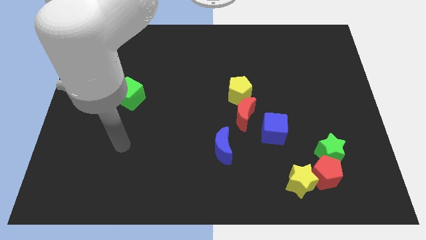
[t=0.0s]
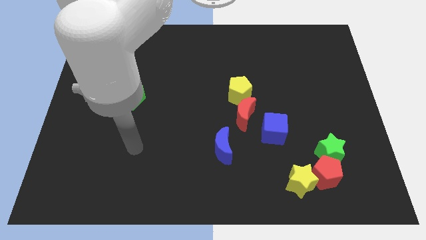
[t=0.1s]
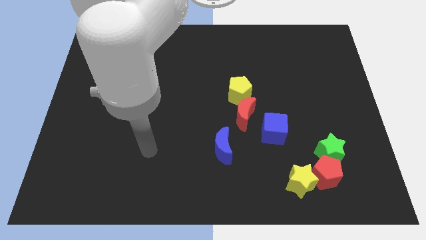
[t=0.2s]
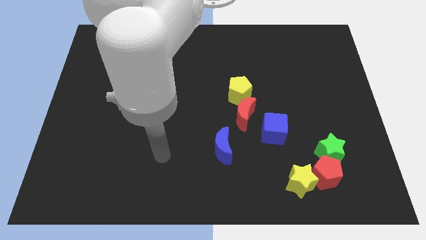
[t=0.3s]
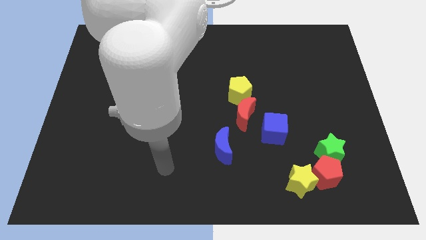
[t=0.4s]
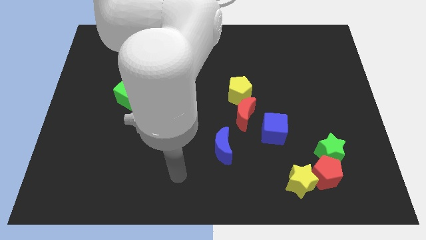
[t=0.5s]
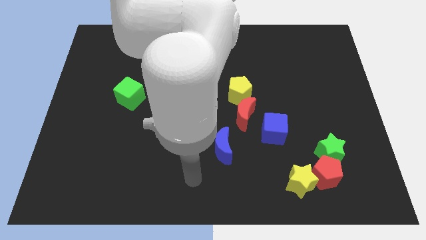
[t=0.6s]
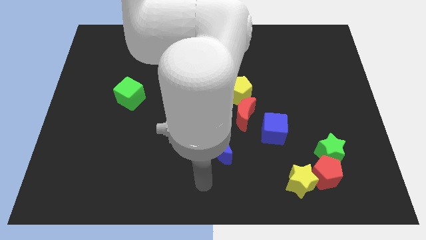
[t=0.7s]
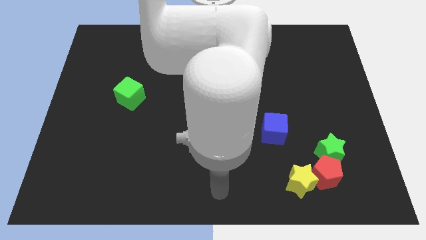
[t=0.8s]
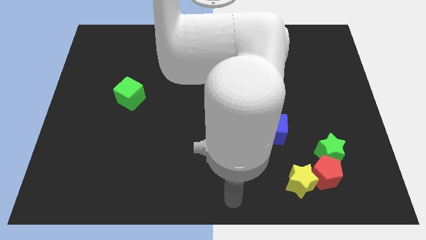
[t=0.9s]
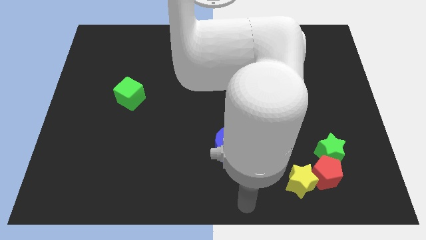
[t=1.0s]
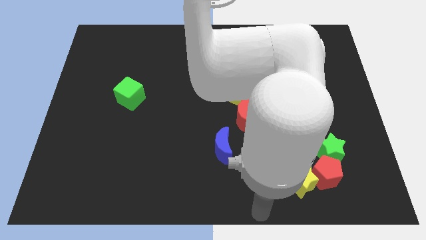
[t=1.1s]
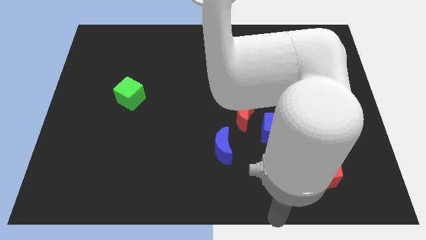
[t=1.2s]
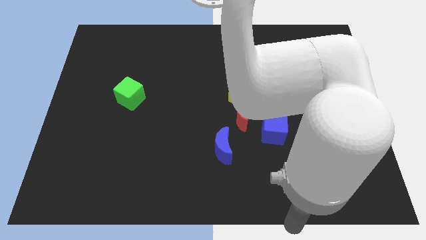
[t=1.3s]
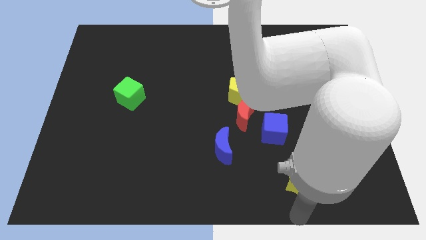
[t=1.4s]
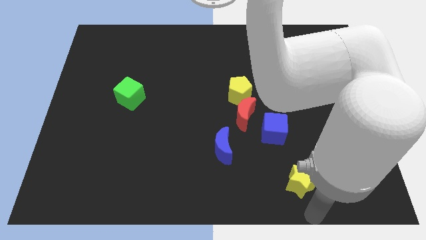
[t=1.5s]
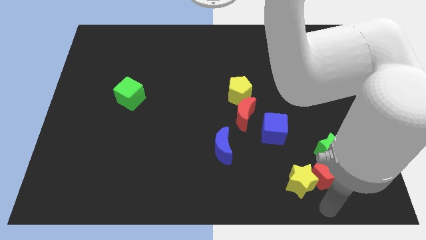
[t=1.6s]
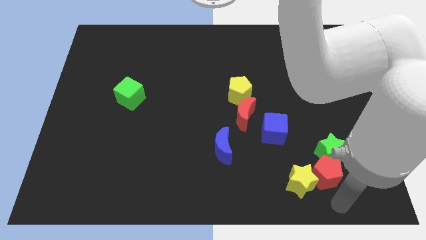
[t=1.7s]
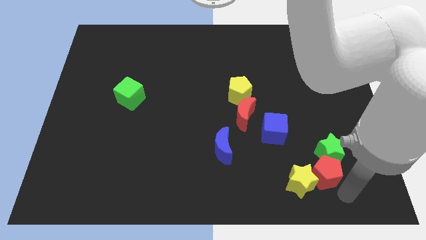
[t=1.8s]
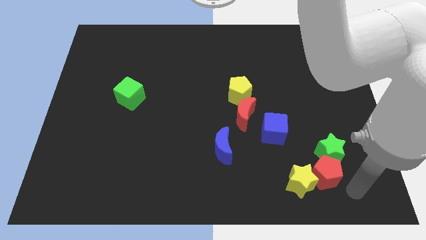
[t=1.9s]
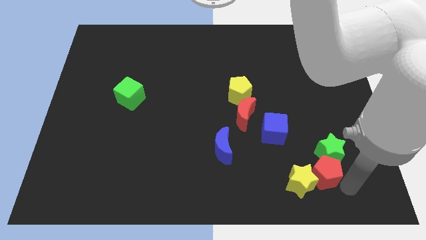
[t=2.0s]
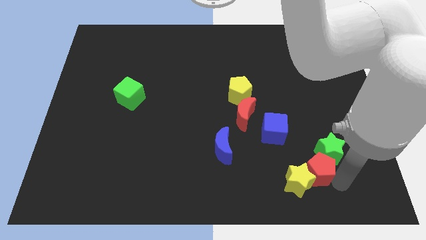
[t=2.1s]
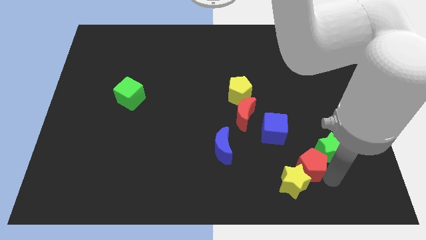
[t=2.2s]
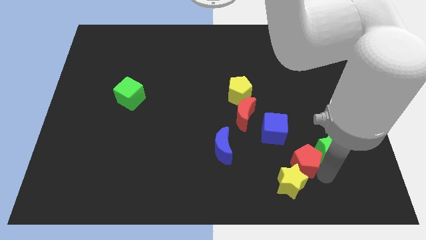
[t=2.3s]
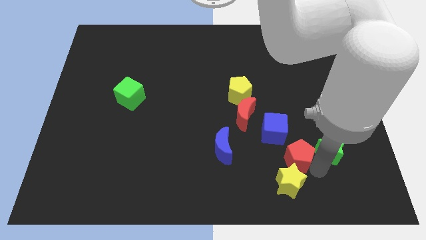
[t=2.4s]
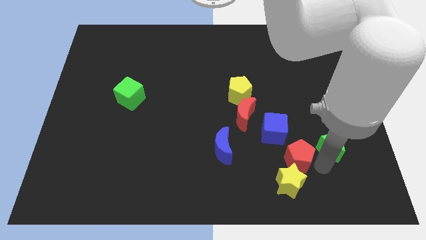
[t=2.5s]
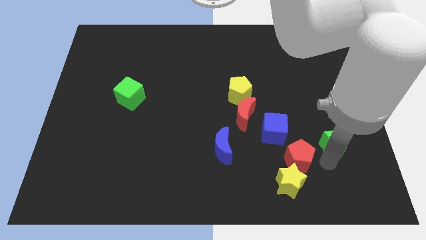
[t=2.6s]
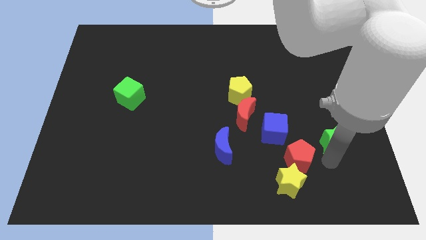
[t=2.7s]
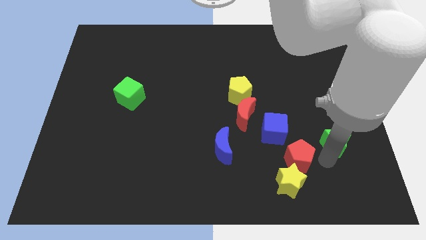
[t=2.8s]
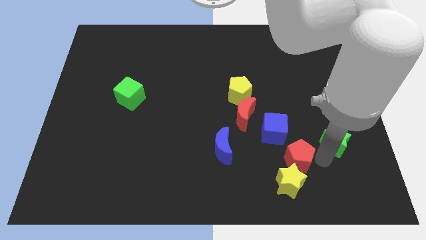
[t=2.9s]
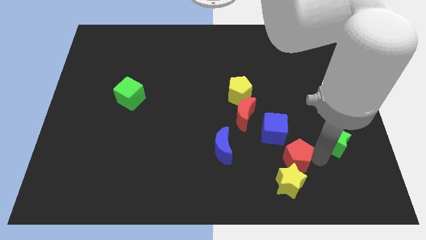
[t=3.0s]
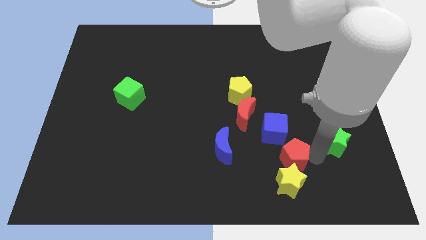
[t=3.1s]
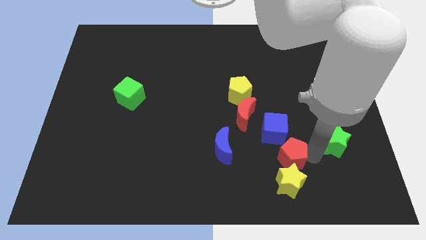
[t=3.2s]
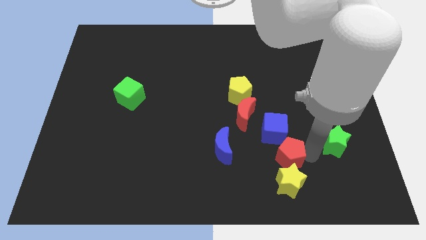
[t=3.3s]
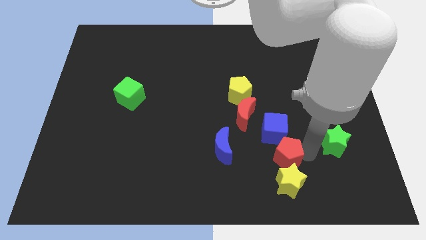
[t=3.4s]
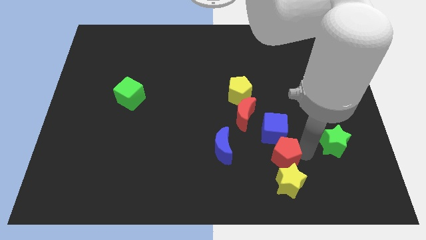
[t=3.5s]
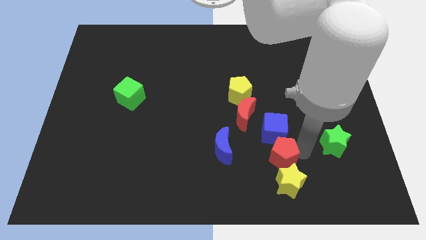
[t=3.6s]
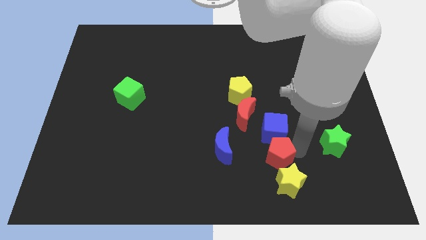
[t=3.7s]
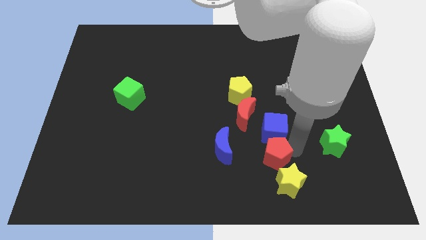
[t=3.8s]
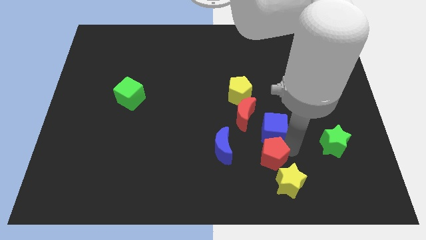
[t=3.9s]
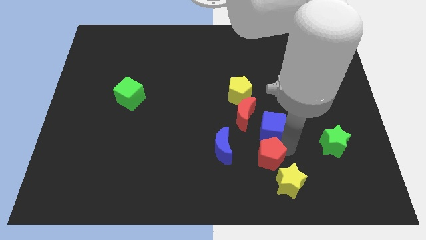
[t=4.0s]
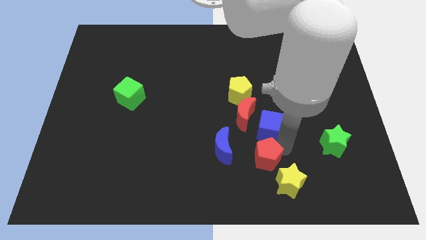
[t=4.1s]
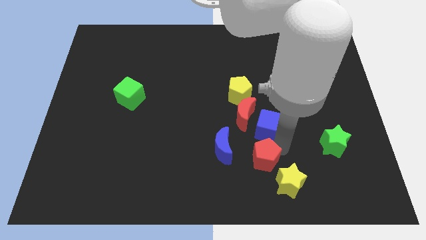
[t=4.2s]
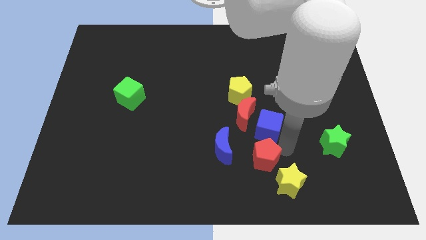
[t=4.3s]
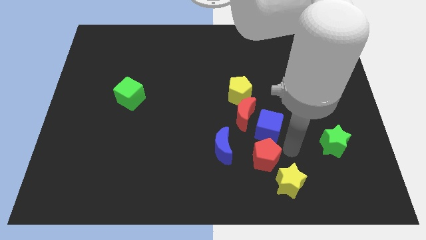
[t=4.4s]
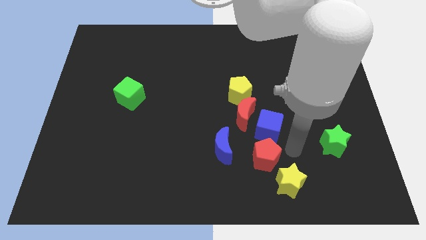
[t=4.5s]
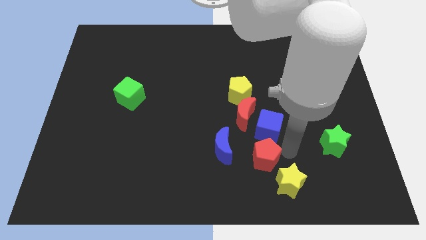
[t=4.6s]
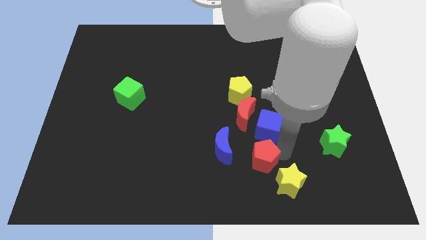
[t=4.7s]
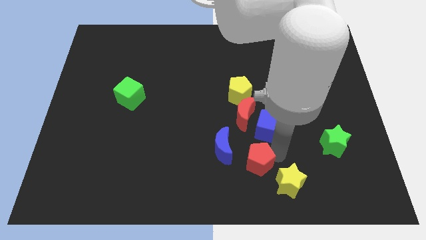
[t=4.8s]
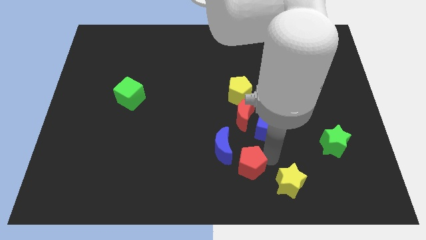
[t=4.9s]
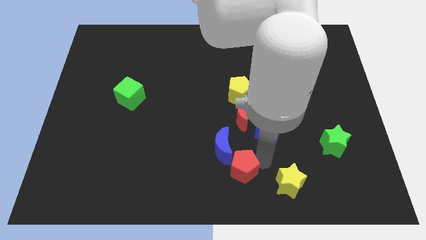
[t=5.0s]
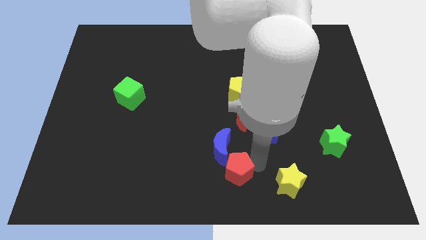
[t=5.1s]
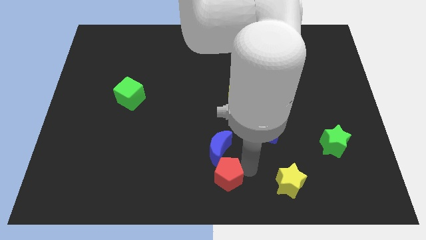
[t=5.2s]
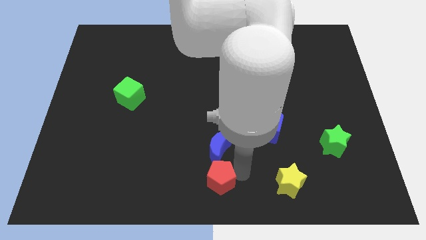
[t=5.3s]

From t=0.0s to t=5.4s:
move the red pentagon diagonally down and to the left of the blue moon

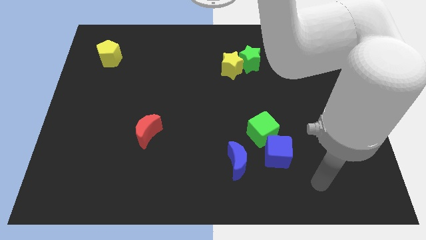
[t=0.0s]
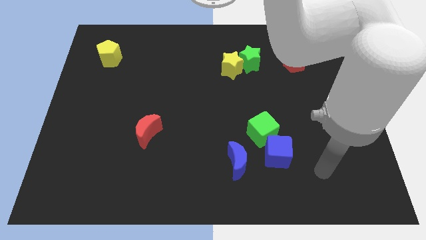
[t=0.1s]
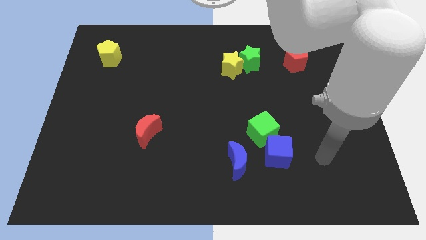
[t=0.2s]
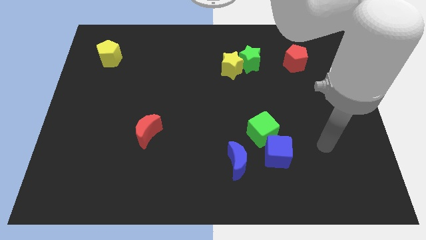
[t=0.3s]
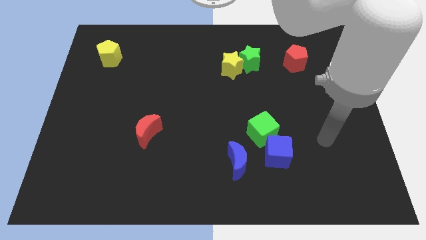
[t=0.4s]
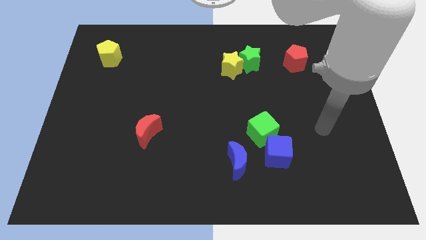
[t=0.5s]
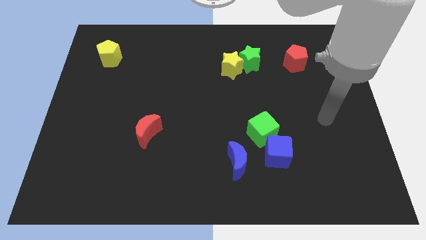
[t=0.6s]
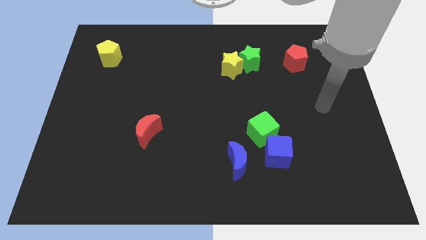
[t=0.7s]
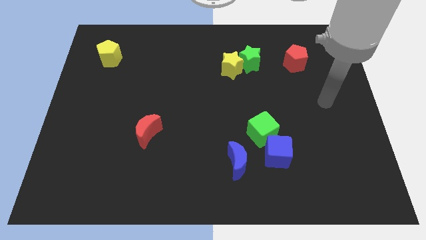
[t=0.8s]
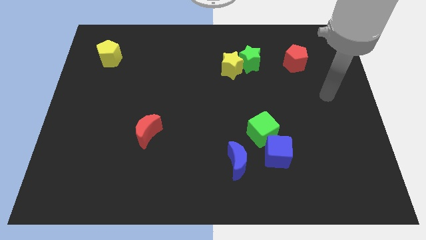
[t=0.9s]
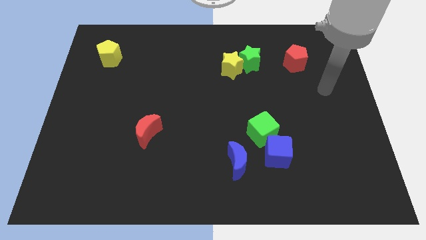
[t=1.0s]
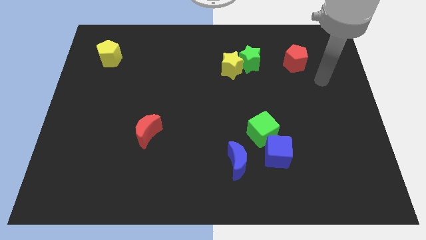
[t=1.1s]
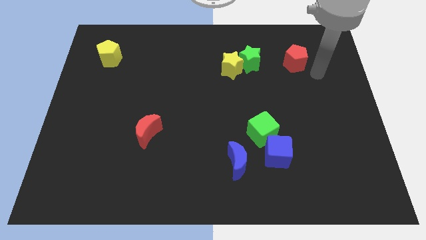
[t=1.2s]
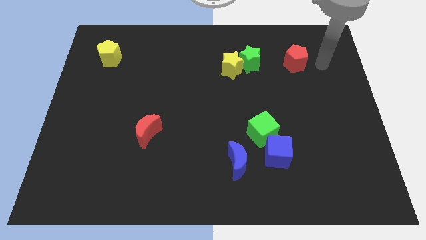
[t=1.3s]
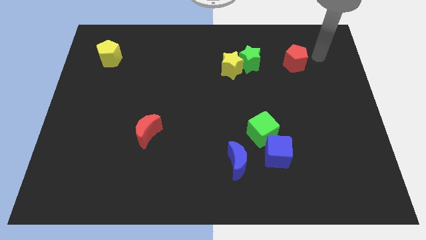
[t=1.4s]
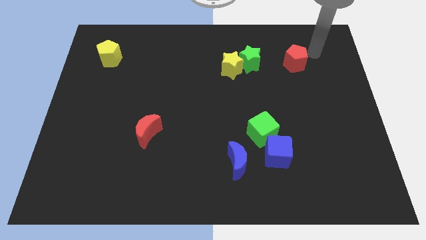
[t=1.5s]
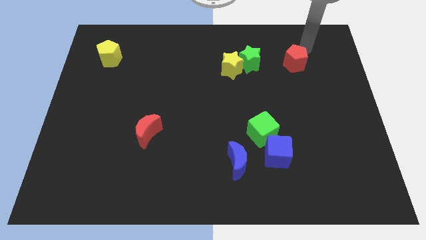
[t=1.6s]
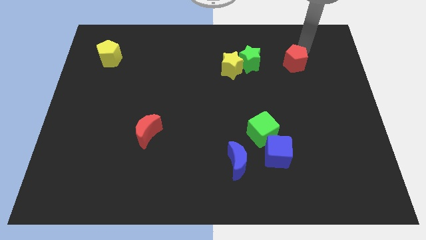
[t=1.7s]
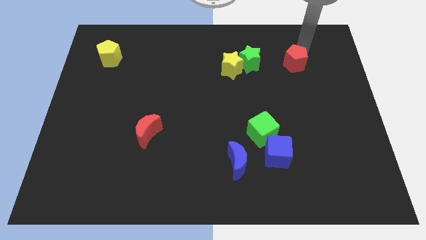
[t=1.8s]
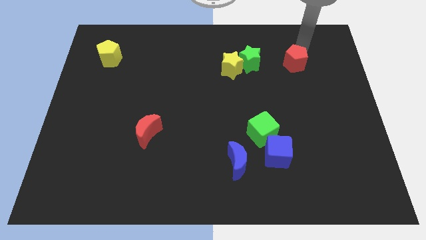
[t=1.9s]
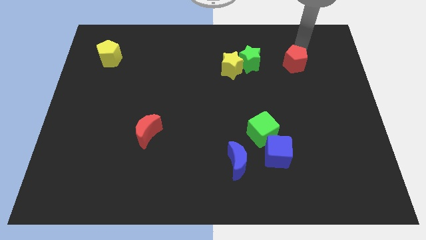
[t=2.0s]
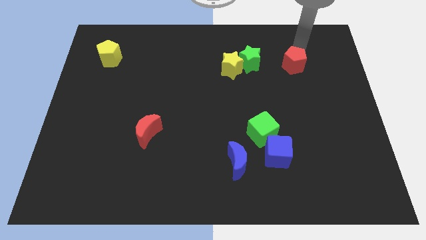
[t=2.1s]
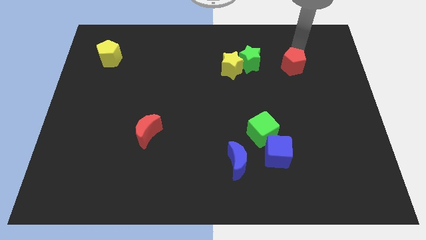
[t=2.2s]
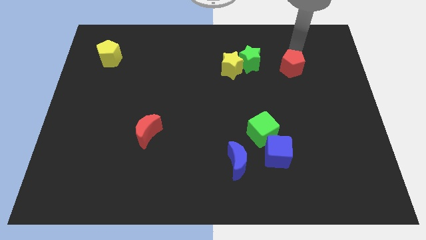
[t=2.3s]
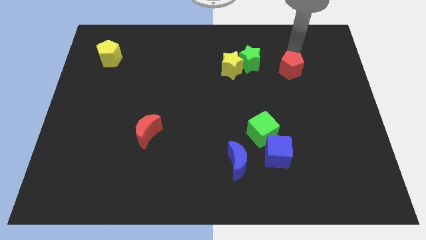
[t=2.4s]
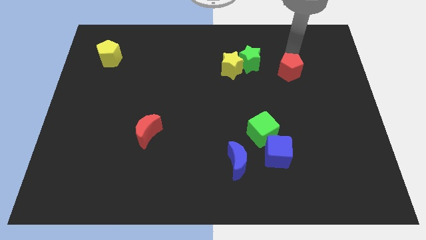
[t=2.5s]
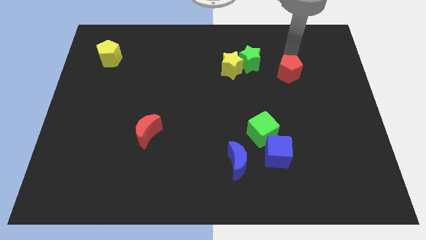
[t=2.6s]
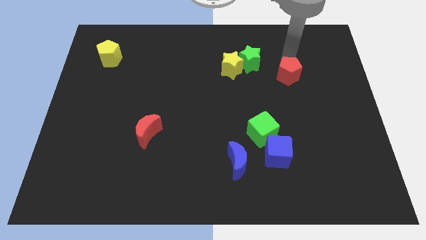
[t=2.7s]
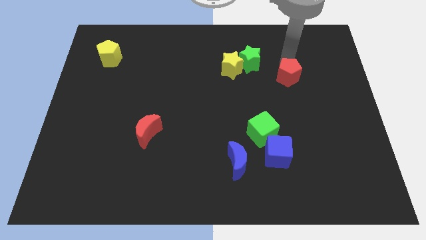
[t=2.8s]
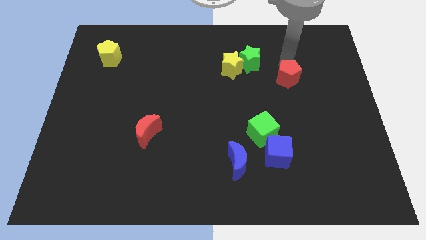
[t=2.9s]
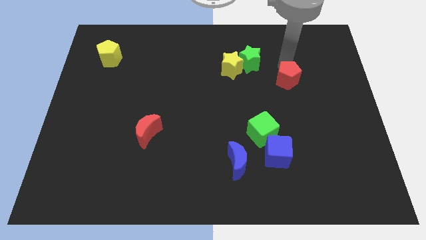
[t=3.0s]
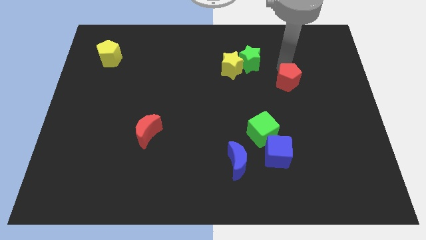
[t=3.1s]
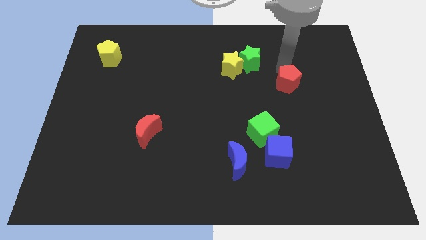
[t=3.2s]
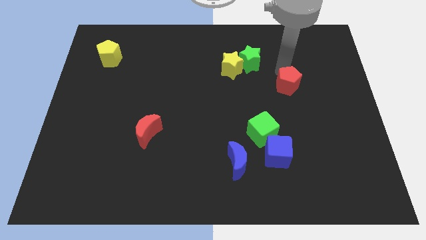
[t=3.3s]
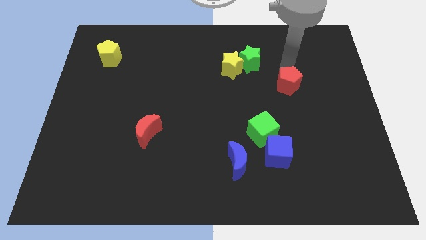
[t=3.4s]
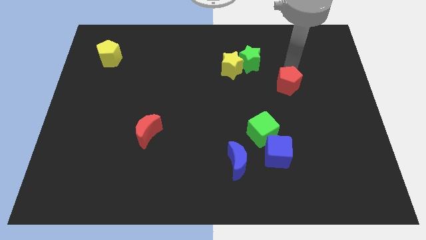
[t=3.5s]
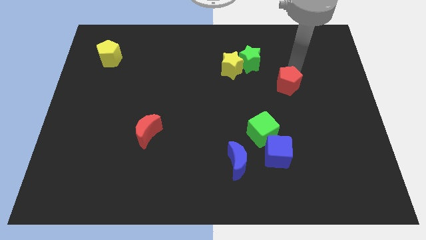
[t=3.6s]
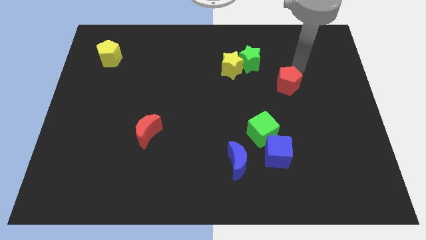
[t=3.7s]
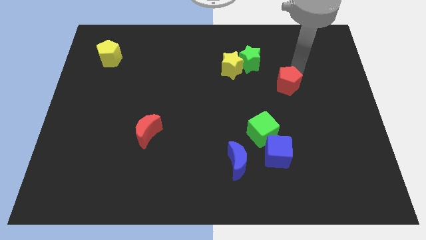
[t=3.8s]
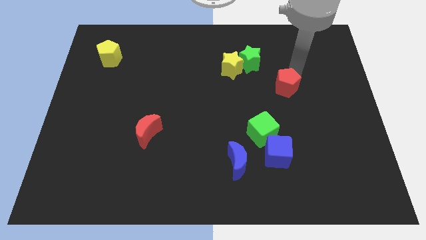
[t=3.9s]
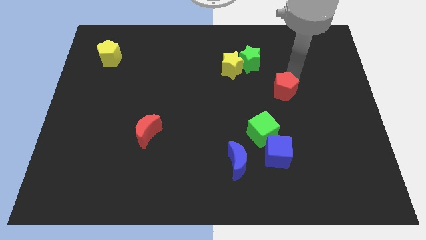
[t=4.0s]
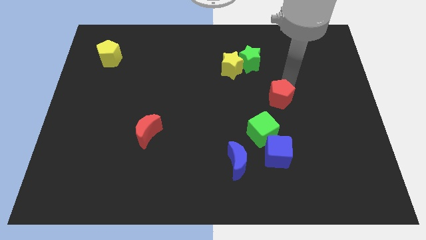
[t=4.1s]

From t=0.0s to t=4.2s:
move the red pentagon to the top of the blue cube
